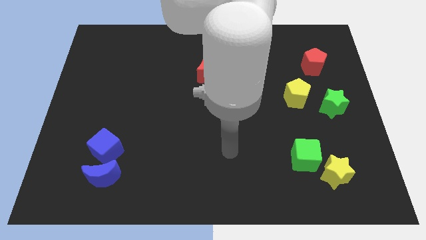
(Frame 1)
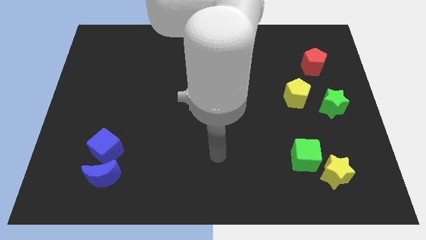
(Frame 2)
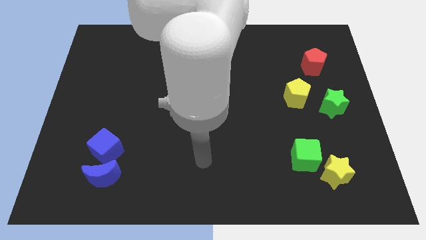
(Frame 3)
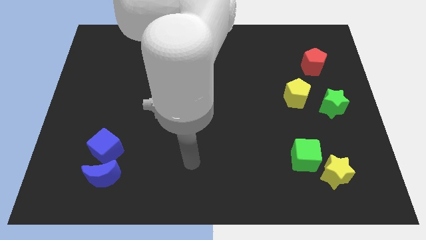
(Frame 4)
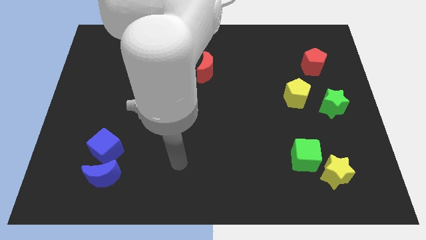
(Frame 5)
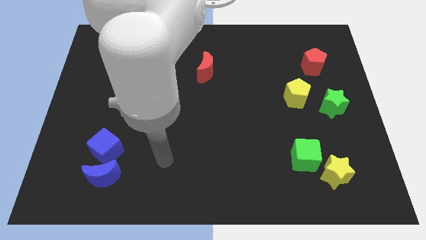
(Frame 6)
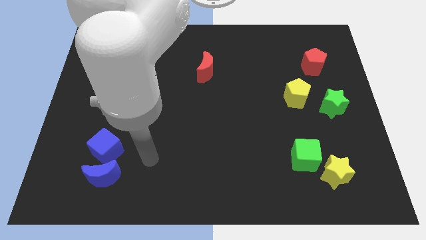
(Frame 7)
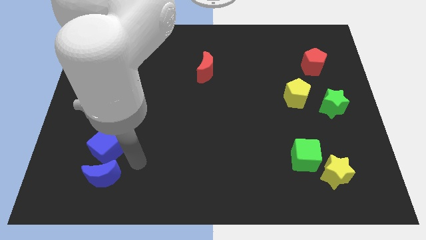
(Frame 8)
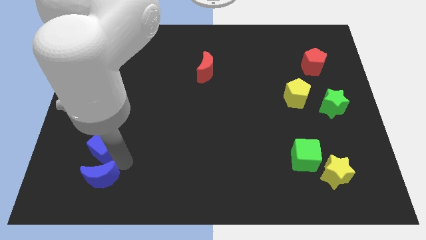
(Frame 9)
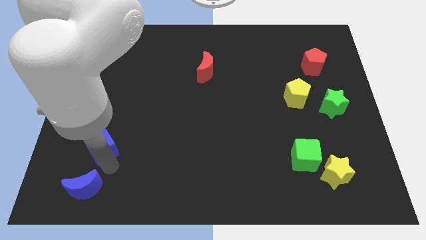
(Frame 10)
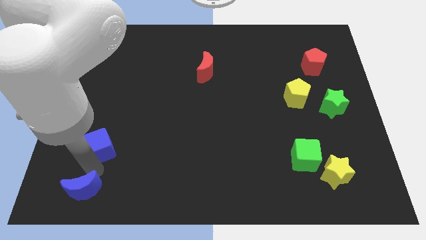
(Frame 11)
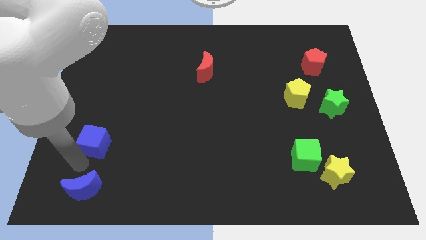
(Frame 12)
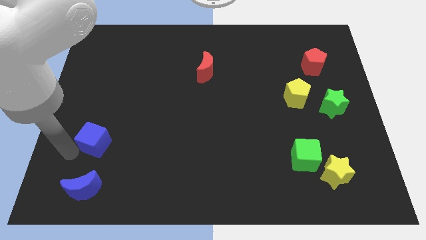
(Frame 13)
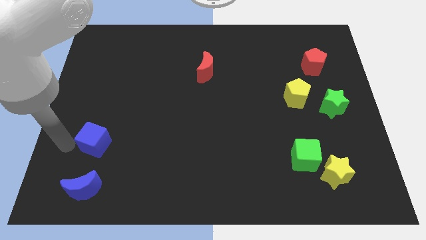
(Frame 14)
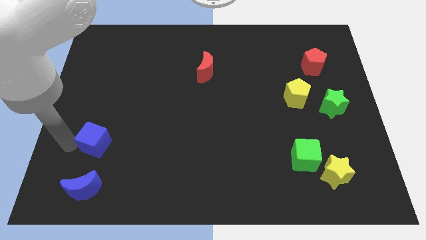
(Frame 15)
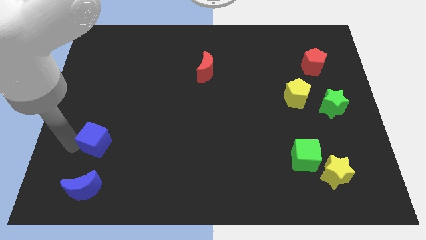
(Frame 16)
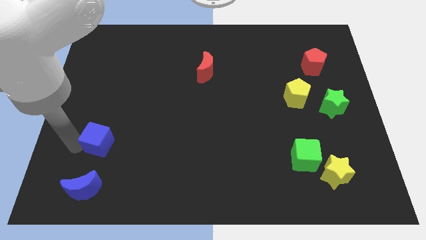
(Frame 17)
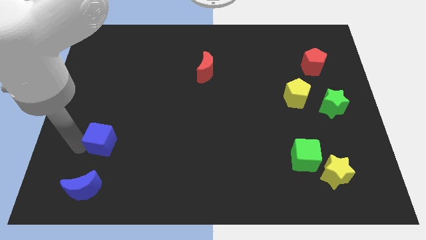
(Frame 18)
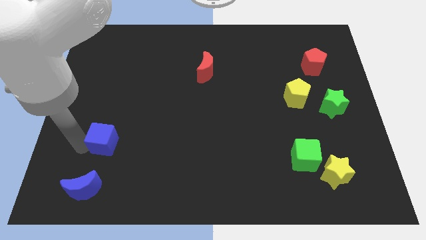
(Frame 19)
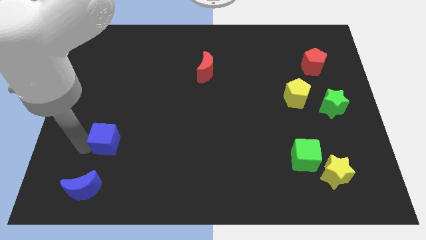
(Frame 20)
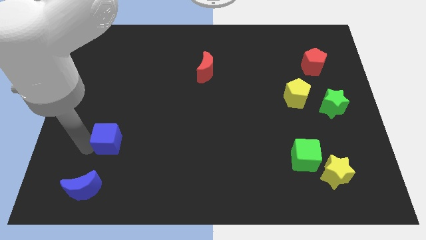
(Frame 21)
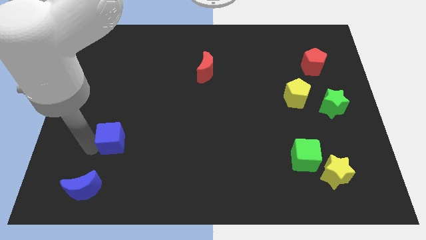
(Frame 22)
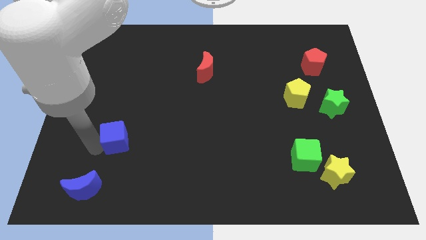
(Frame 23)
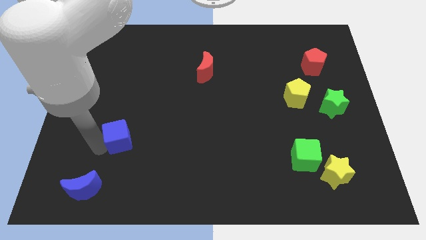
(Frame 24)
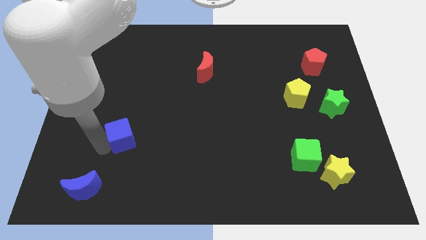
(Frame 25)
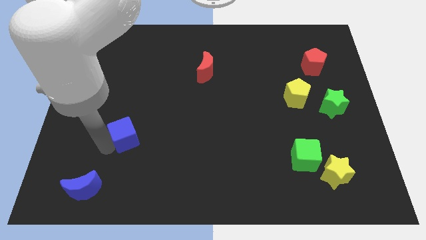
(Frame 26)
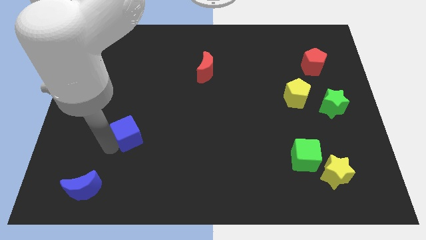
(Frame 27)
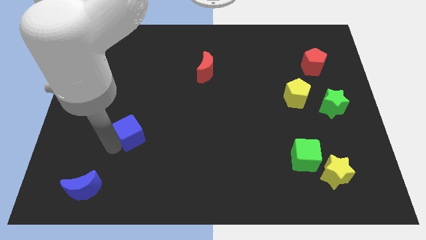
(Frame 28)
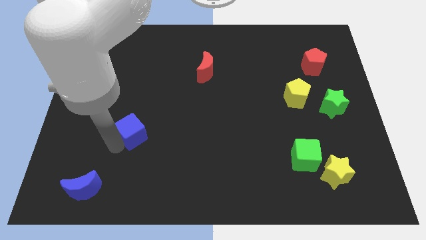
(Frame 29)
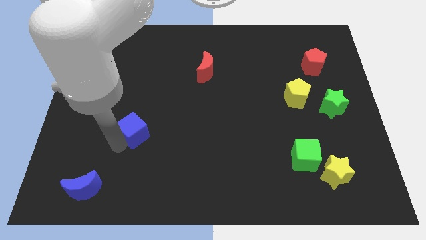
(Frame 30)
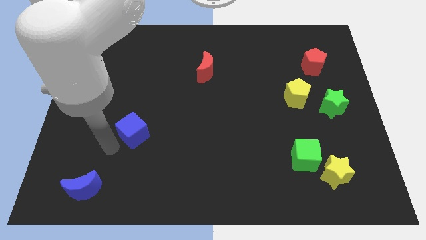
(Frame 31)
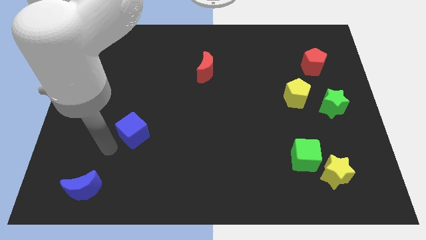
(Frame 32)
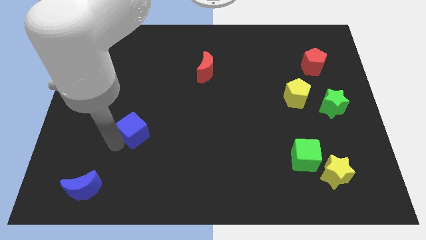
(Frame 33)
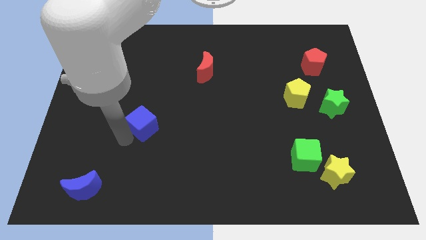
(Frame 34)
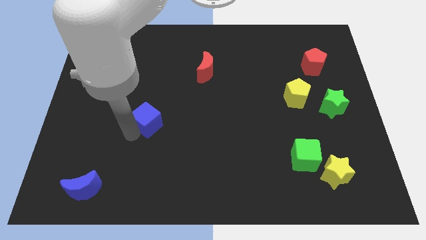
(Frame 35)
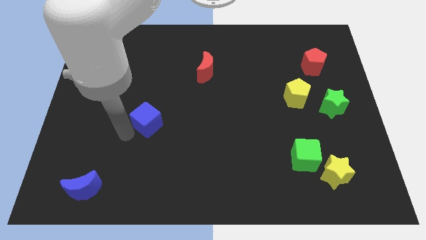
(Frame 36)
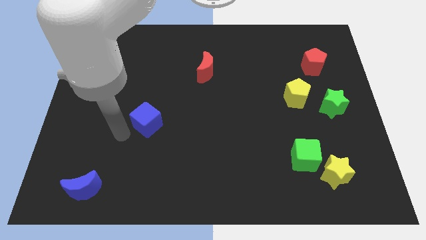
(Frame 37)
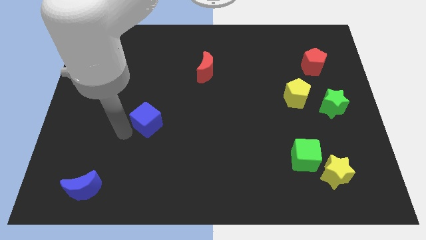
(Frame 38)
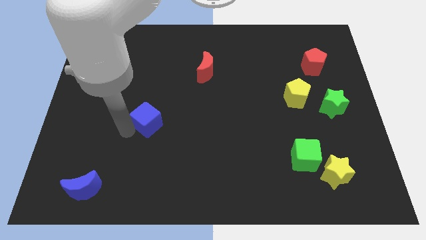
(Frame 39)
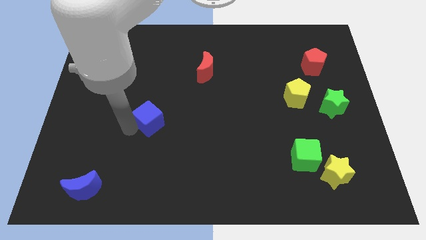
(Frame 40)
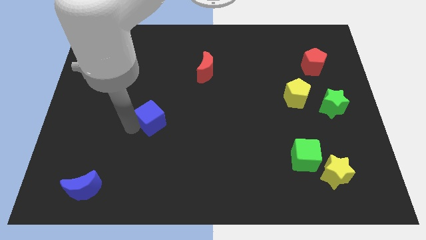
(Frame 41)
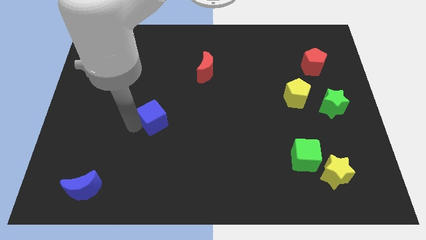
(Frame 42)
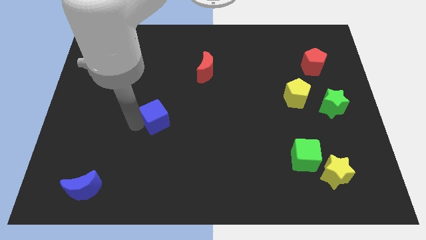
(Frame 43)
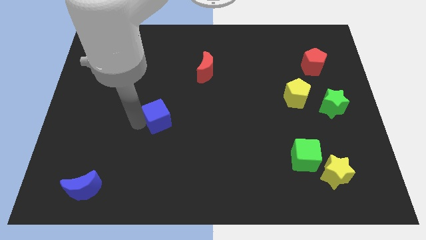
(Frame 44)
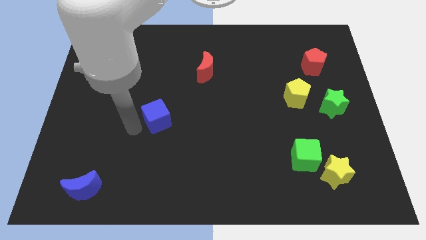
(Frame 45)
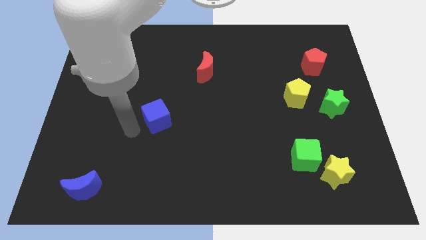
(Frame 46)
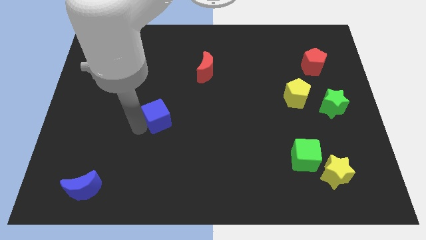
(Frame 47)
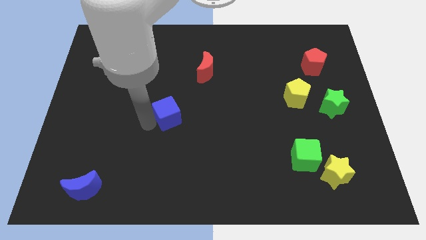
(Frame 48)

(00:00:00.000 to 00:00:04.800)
move the blue cube to the center of the board

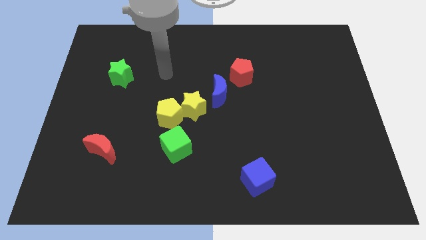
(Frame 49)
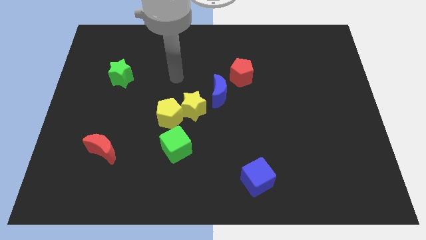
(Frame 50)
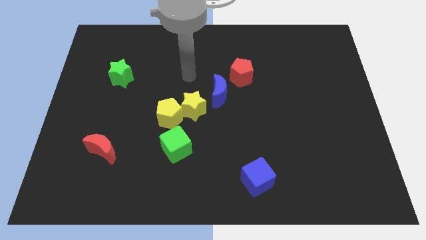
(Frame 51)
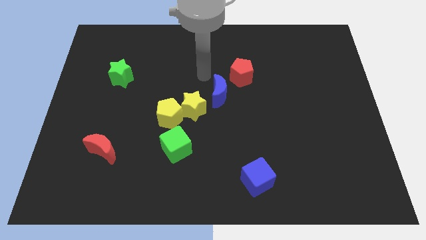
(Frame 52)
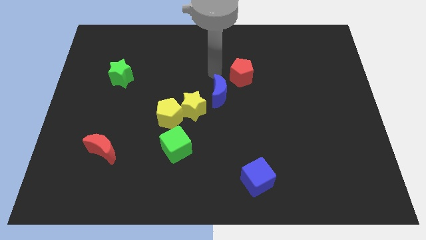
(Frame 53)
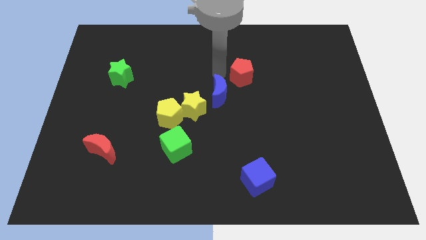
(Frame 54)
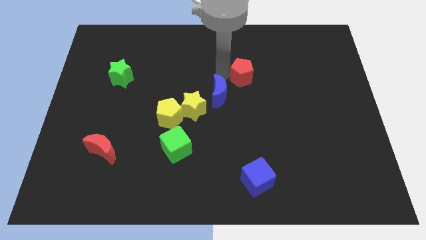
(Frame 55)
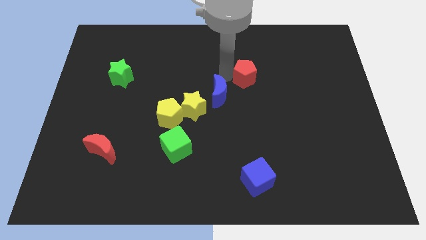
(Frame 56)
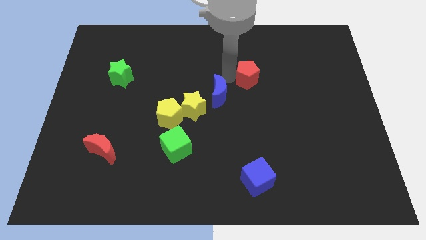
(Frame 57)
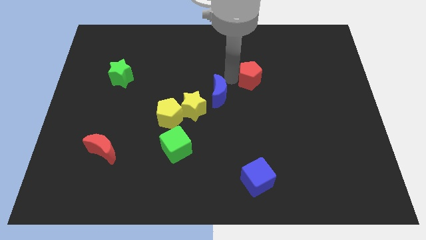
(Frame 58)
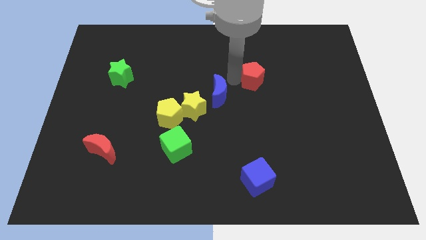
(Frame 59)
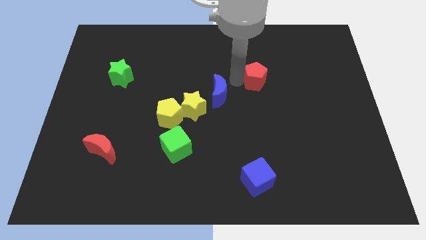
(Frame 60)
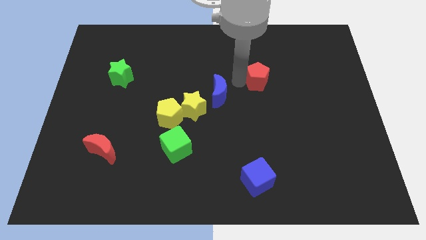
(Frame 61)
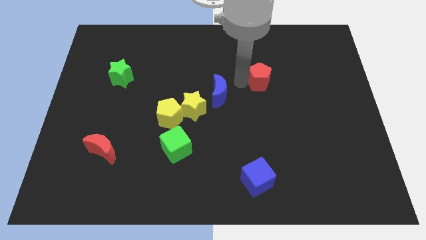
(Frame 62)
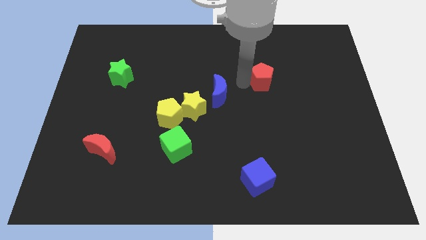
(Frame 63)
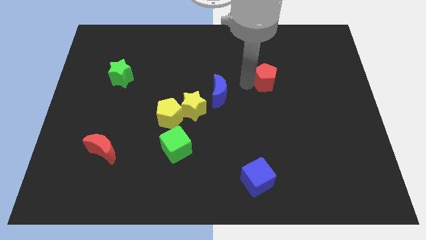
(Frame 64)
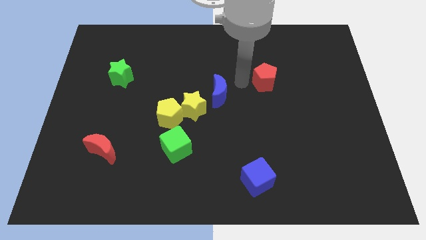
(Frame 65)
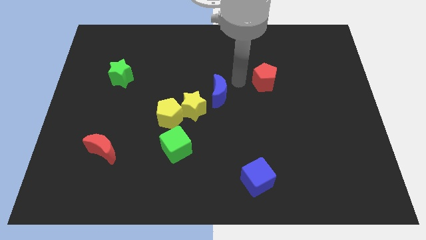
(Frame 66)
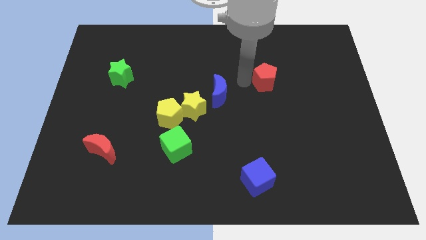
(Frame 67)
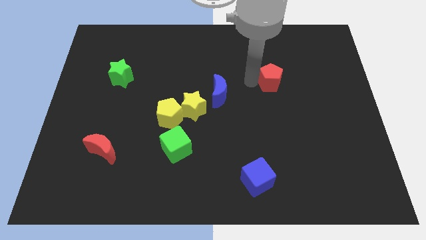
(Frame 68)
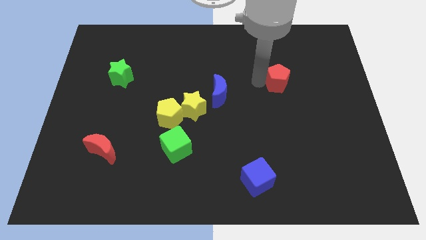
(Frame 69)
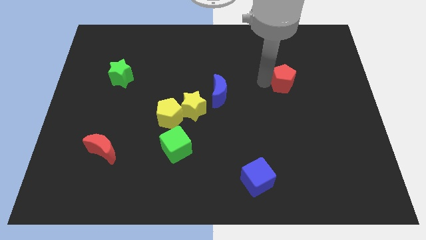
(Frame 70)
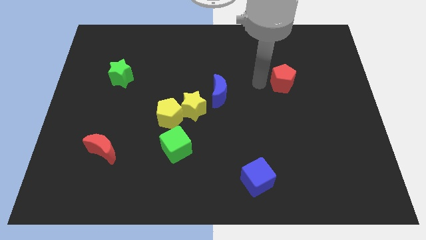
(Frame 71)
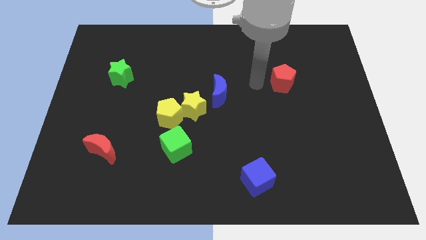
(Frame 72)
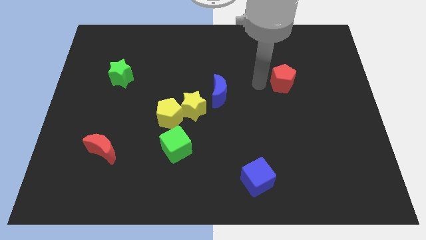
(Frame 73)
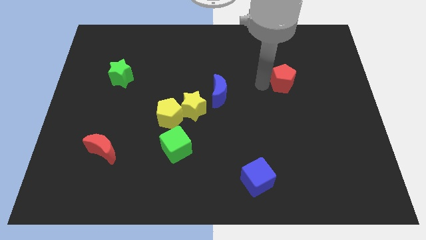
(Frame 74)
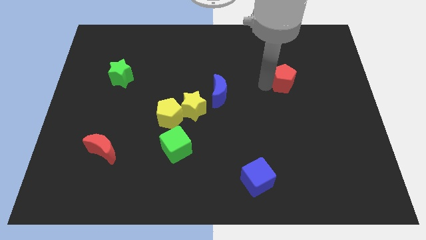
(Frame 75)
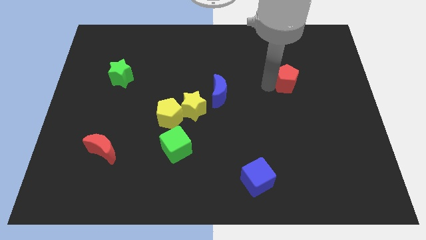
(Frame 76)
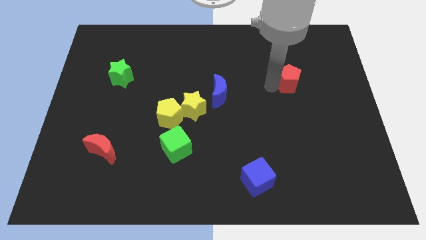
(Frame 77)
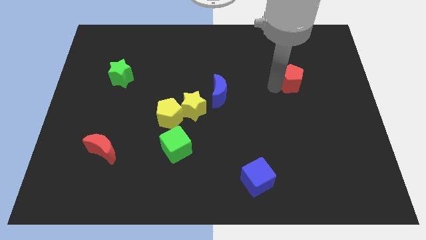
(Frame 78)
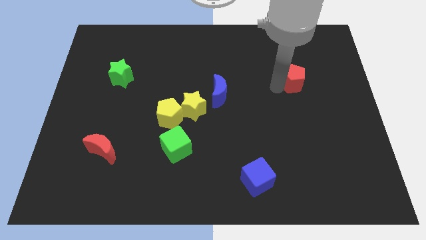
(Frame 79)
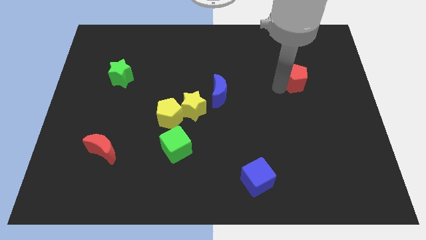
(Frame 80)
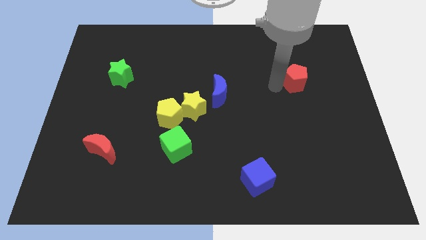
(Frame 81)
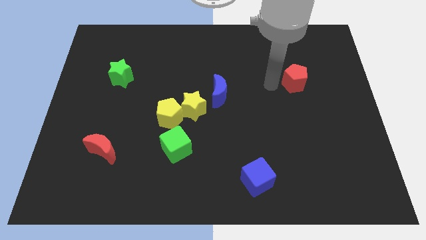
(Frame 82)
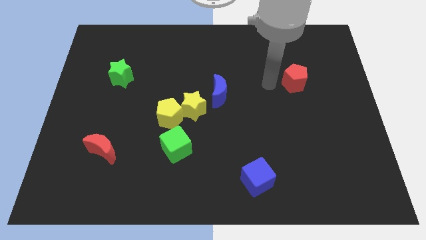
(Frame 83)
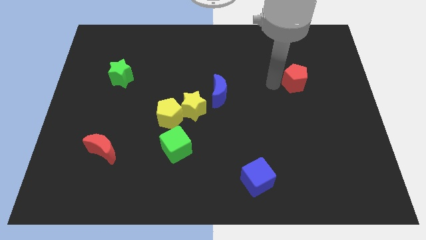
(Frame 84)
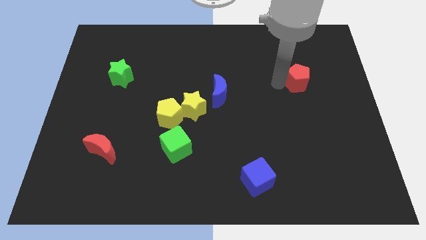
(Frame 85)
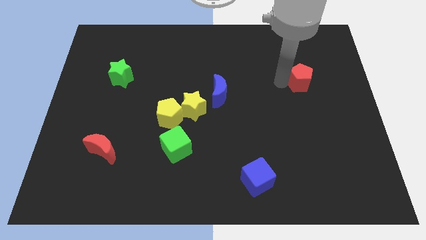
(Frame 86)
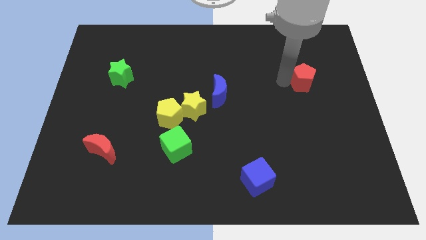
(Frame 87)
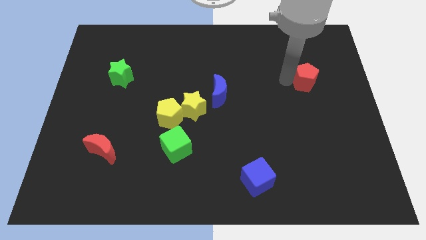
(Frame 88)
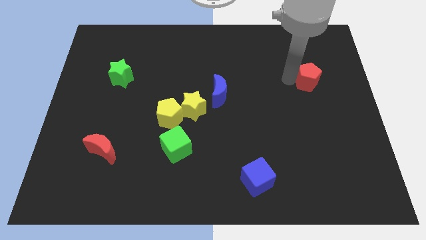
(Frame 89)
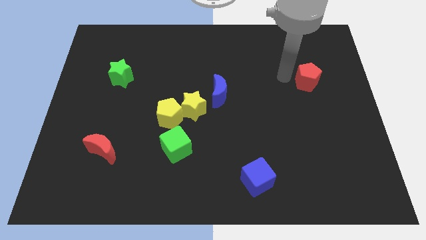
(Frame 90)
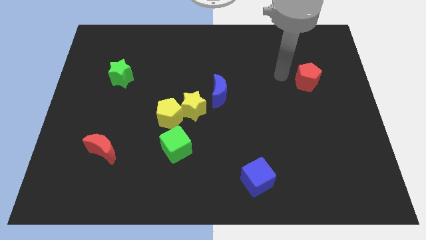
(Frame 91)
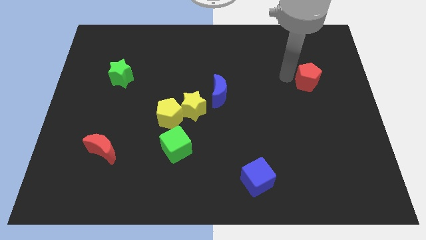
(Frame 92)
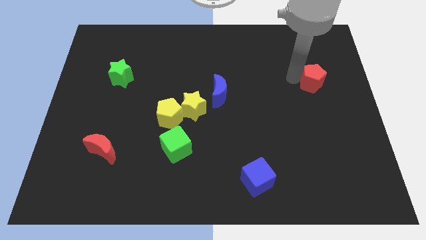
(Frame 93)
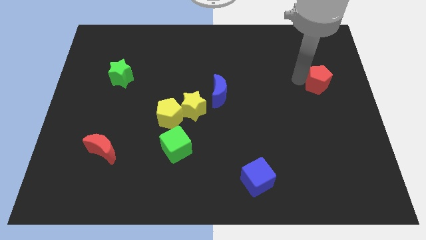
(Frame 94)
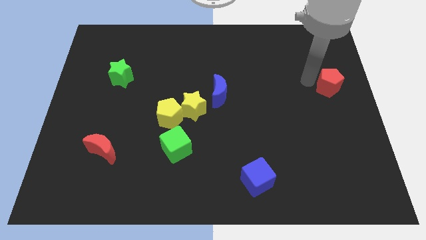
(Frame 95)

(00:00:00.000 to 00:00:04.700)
slide the red pentagon to the right side of the board
